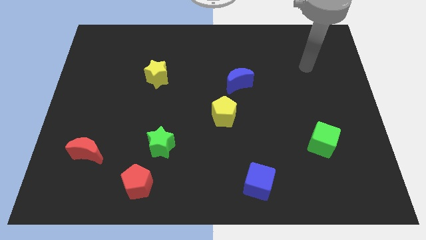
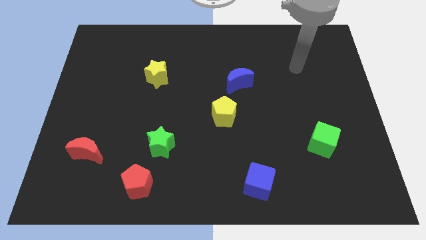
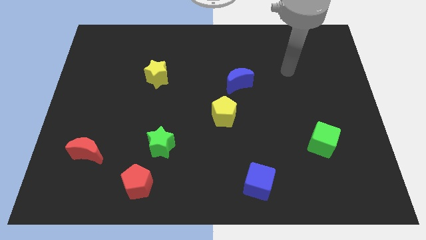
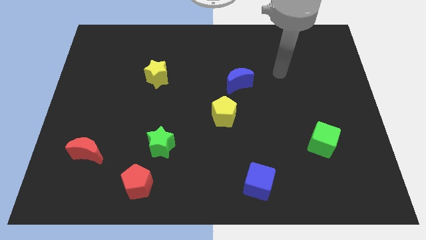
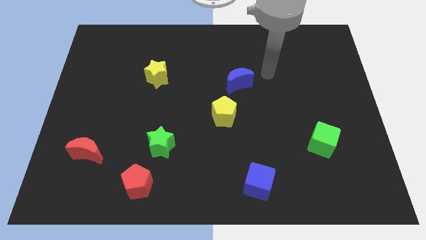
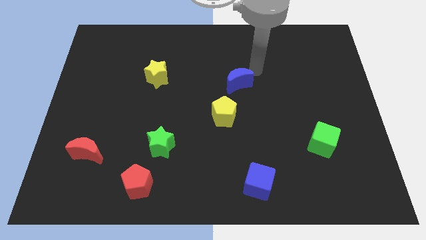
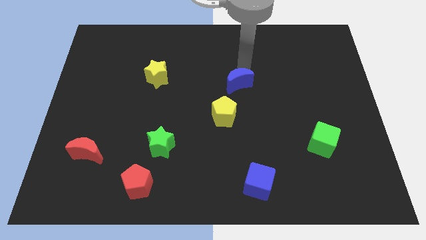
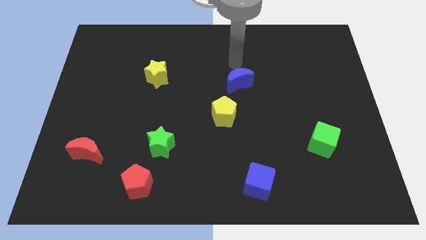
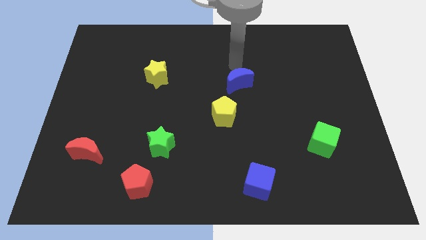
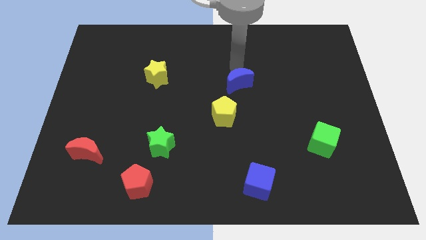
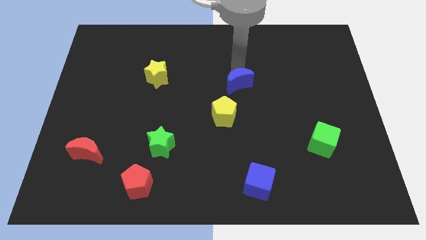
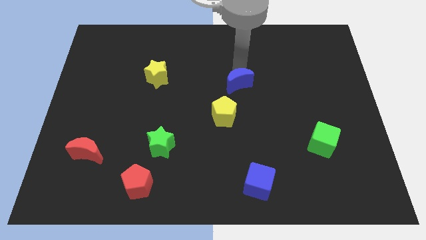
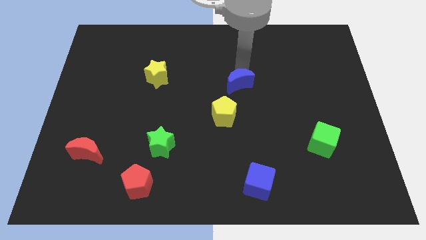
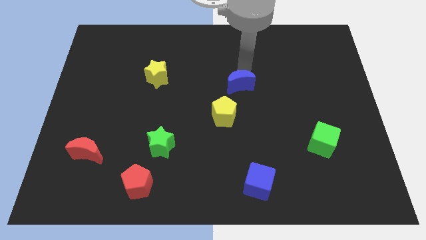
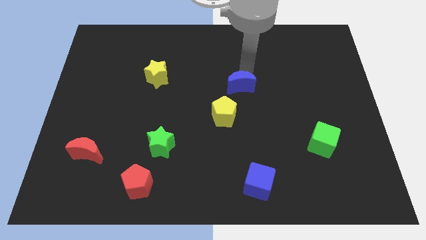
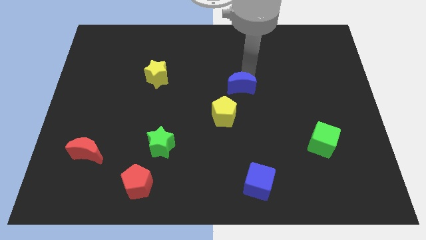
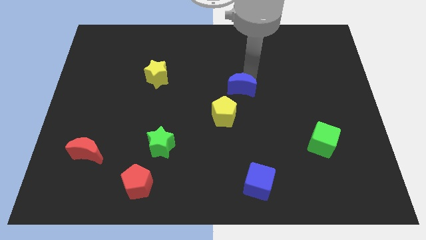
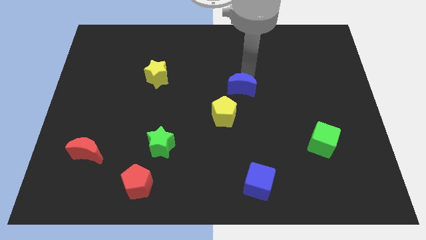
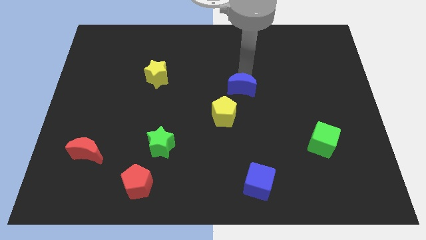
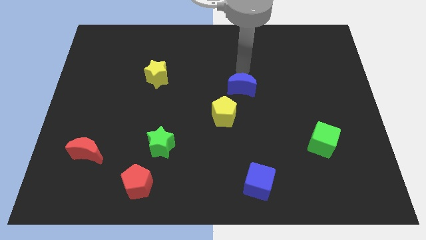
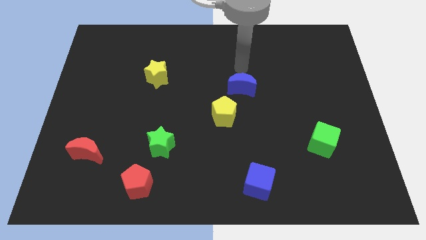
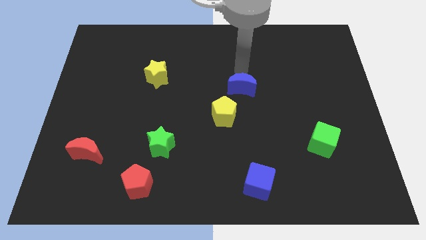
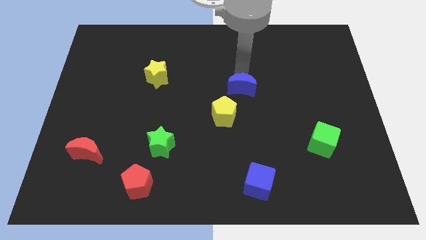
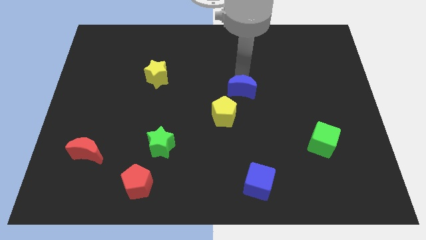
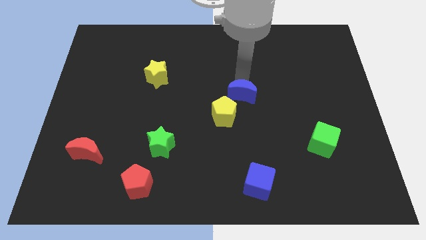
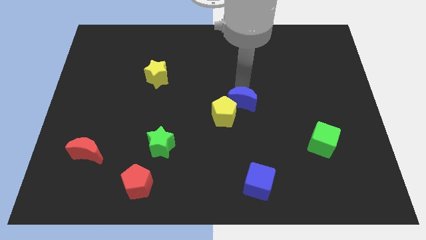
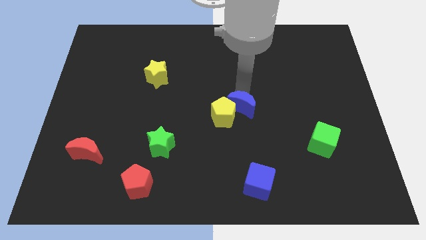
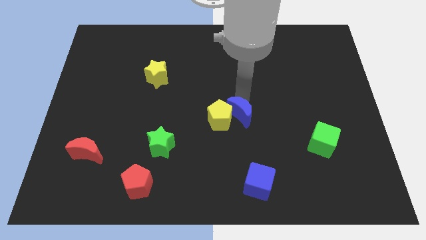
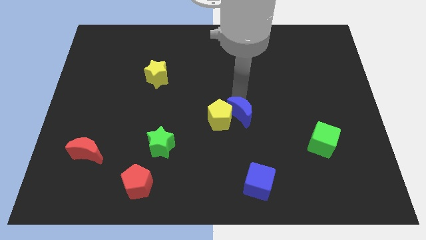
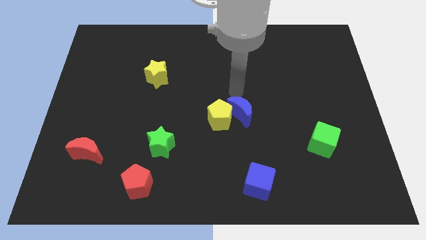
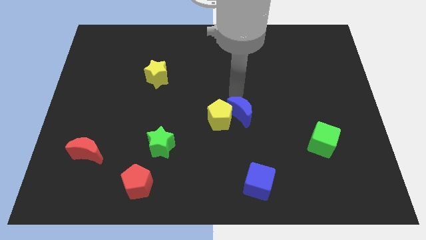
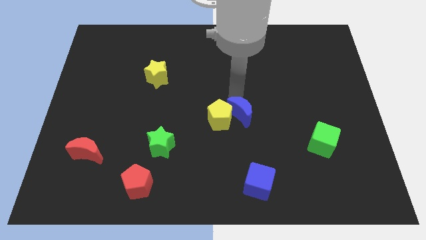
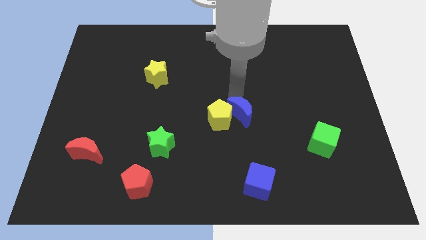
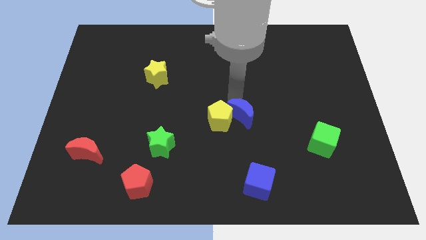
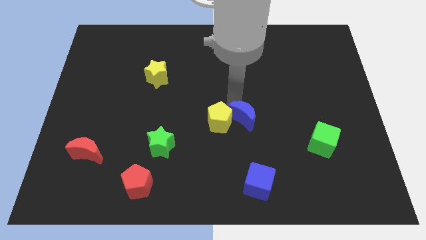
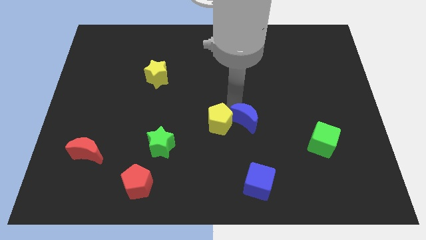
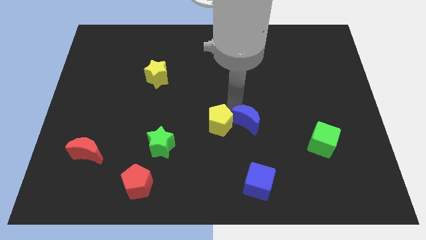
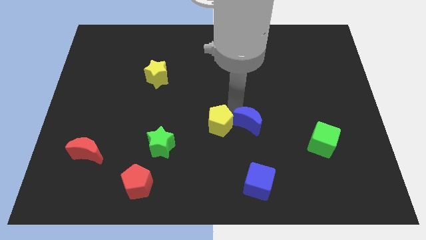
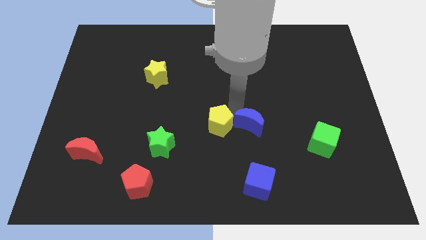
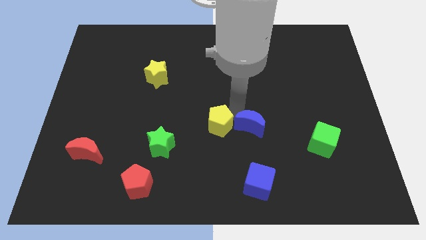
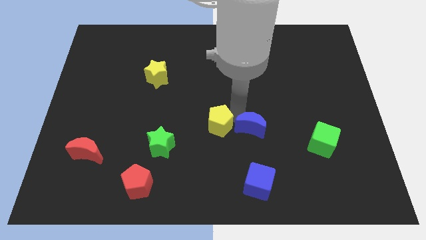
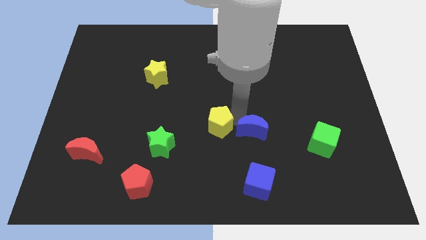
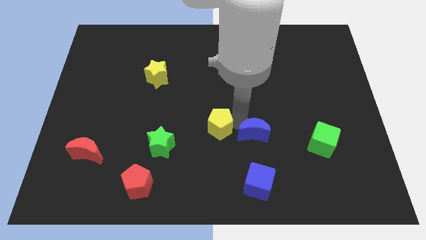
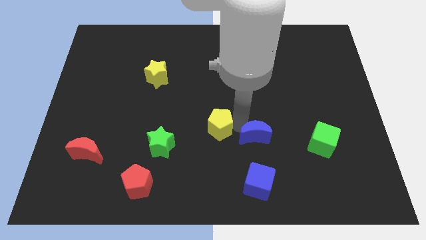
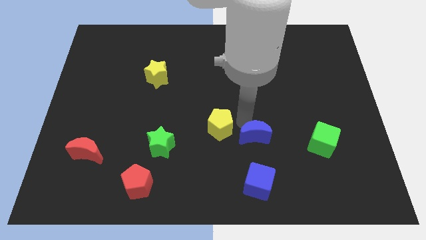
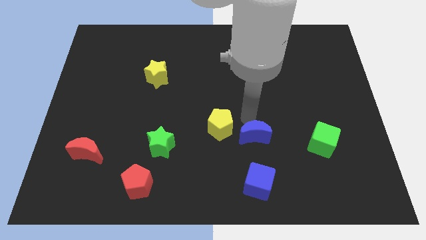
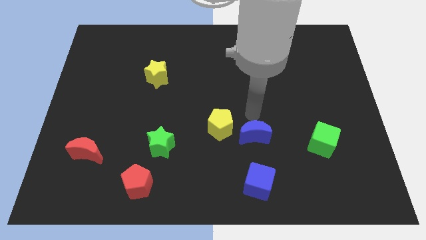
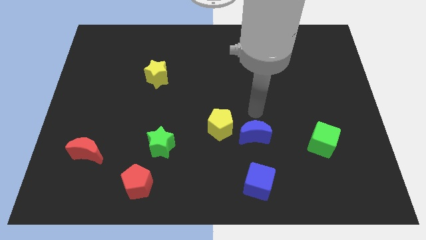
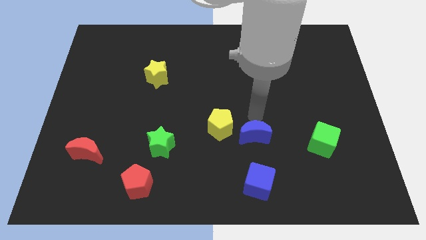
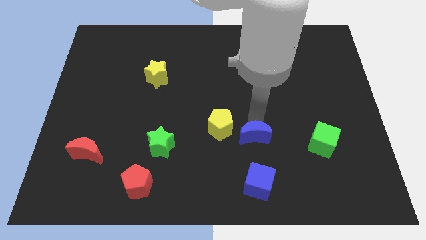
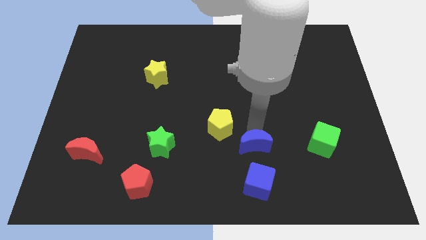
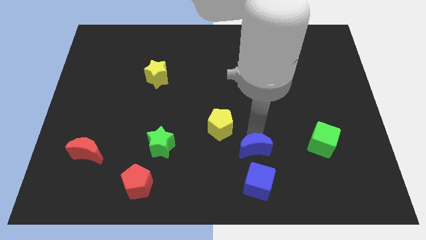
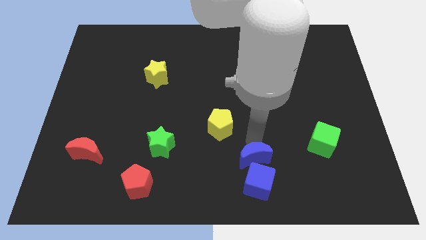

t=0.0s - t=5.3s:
put the blue moon close to the blue cube

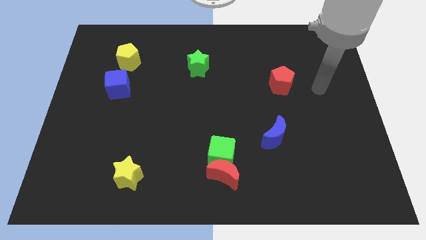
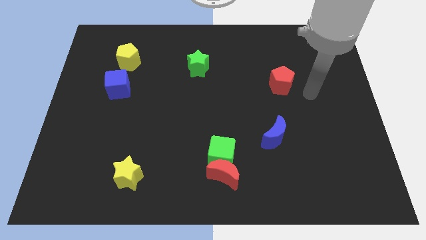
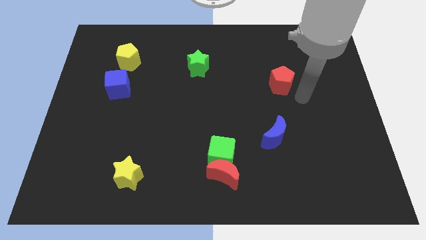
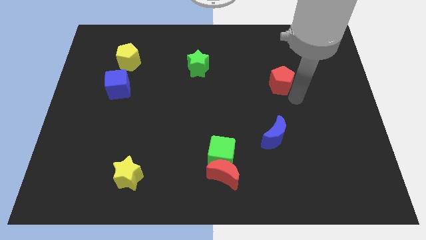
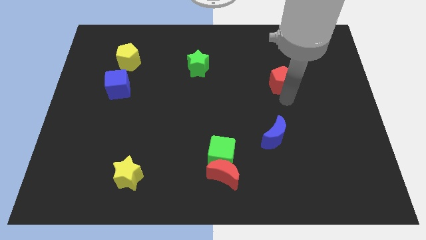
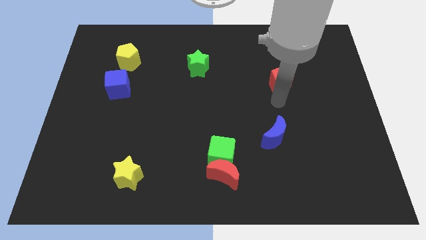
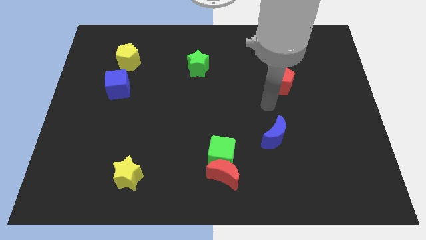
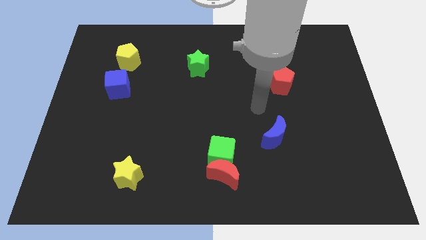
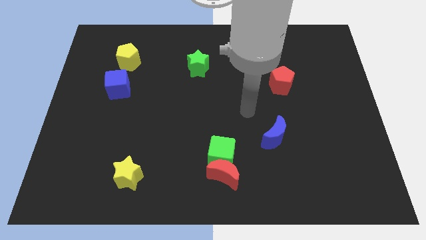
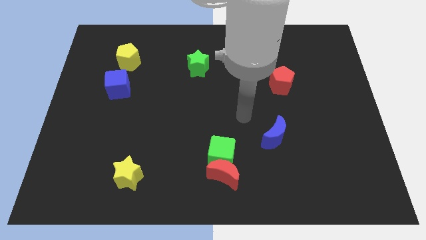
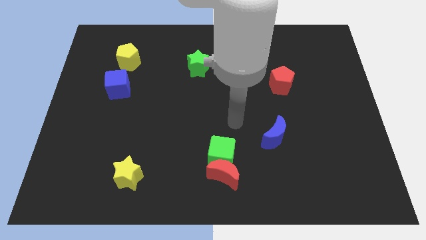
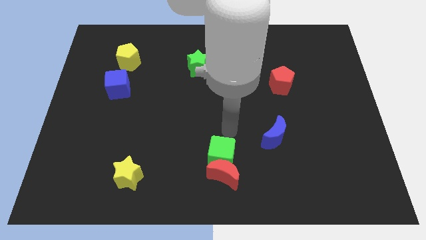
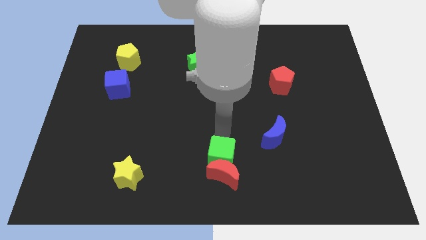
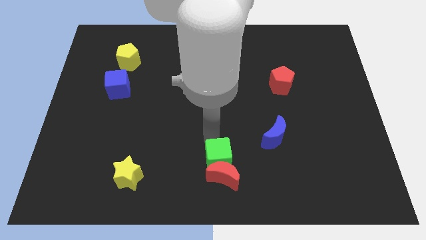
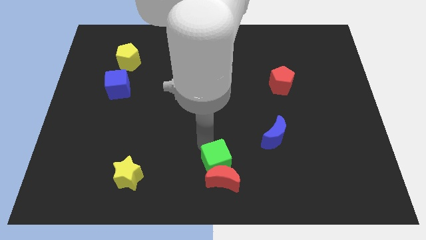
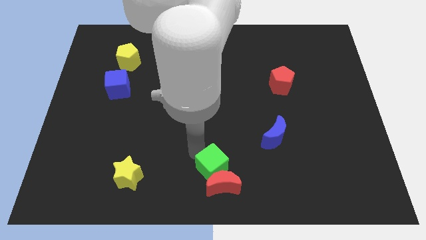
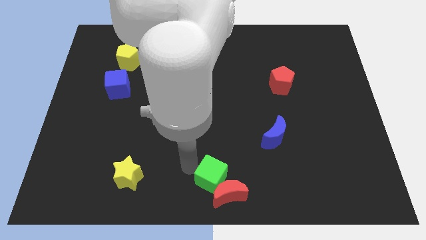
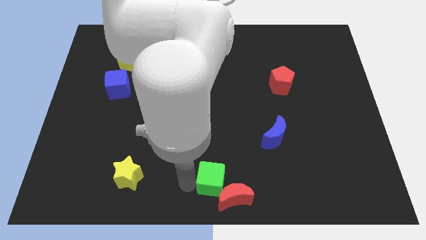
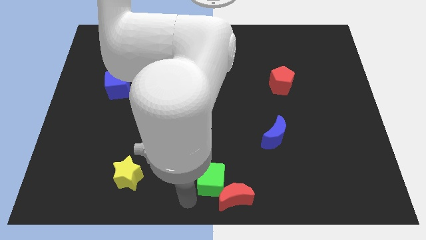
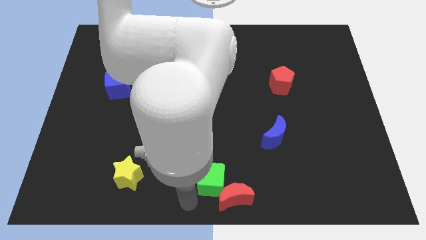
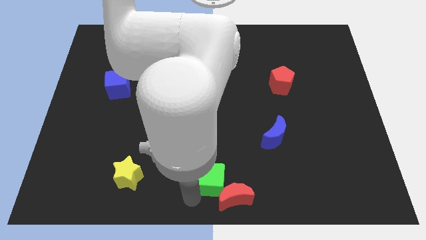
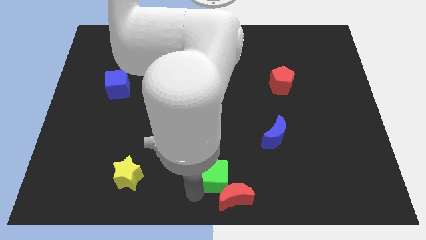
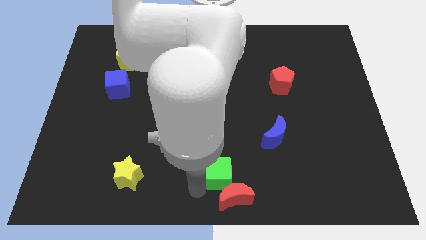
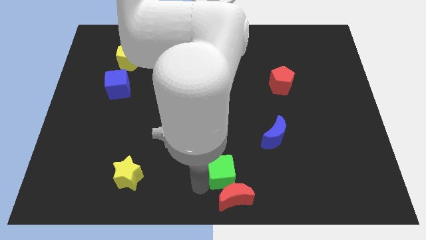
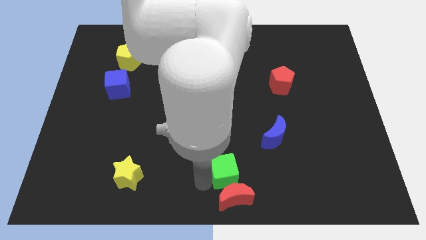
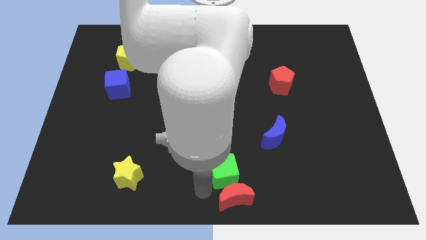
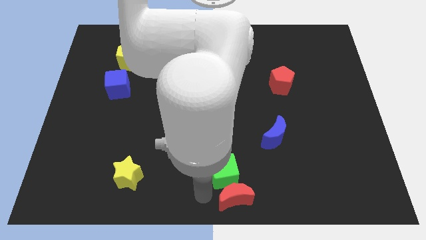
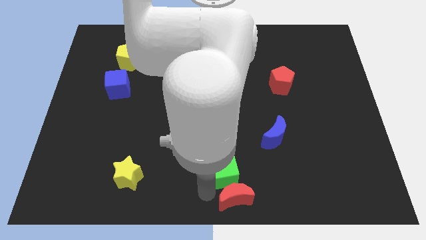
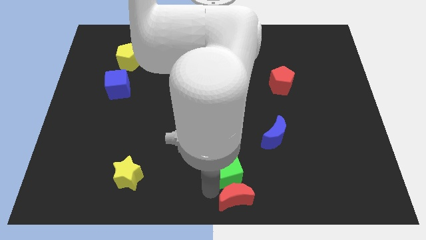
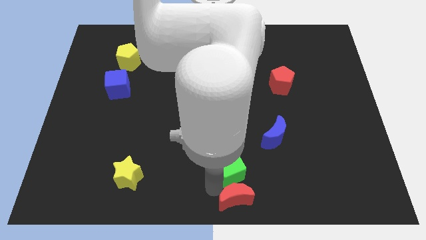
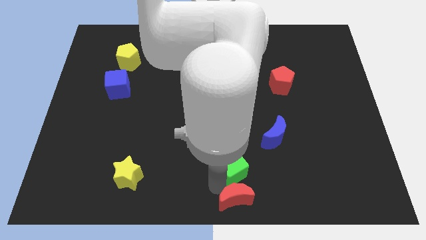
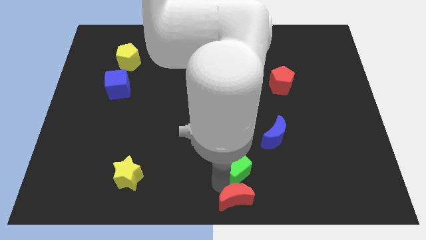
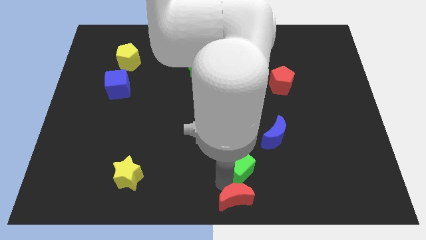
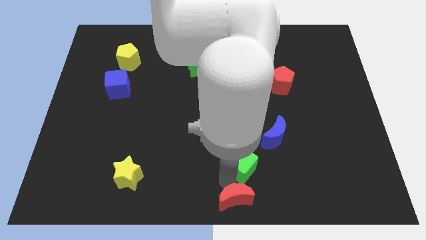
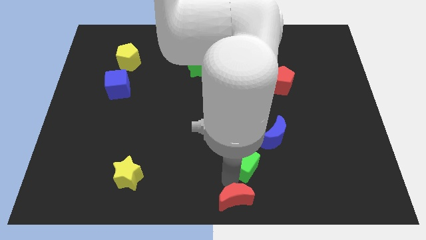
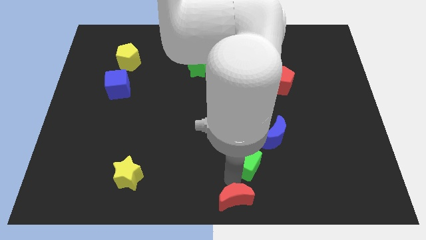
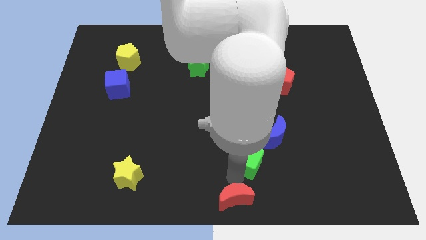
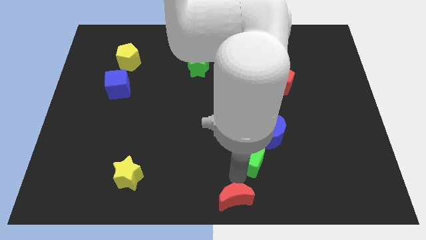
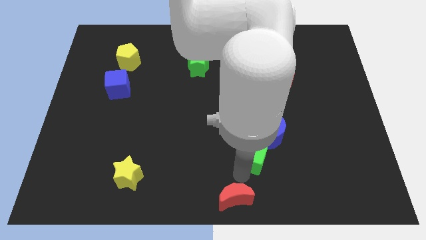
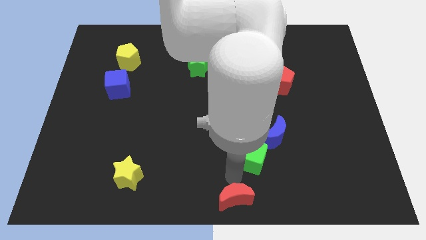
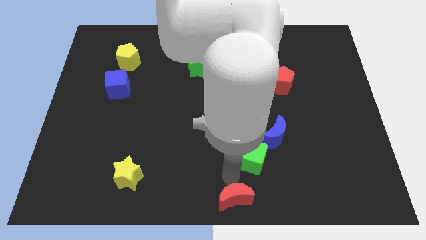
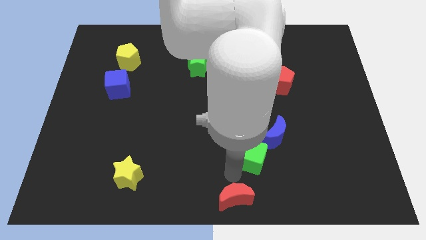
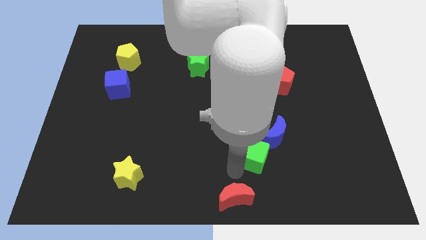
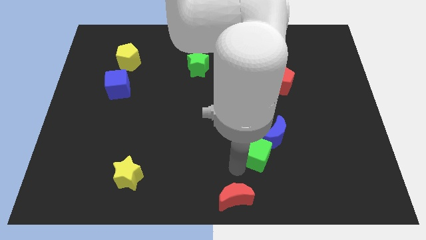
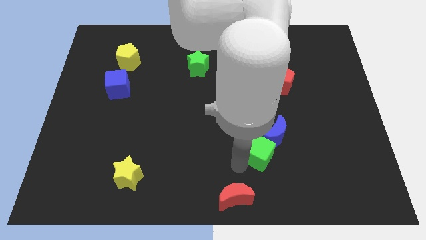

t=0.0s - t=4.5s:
slide the green cube close to the blue moon
